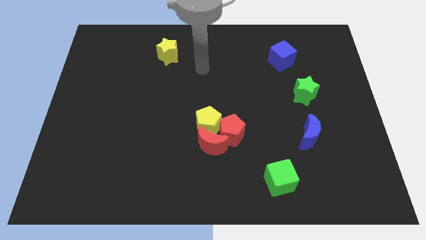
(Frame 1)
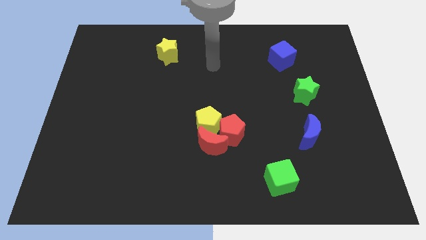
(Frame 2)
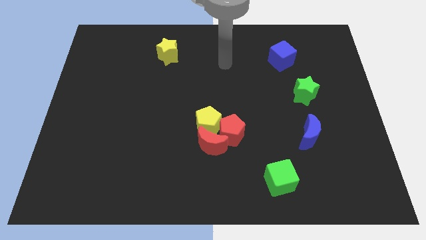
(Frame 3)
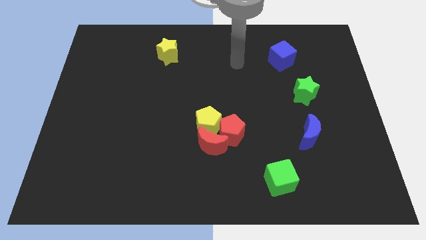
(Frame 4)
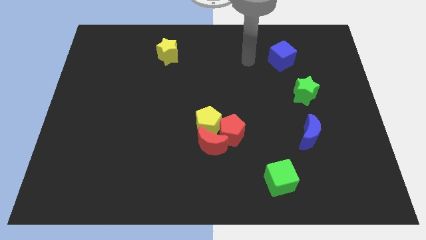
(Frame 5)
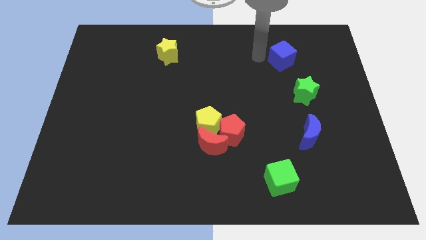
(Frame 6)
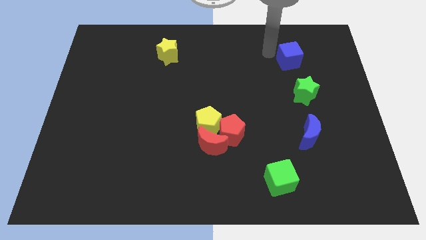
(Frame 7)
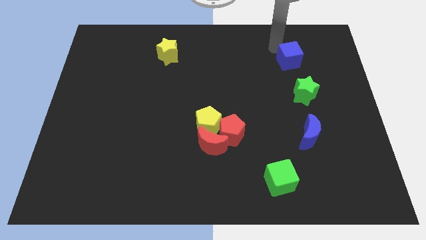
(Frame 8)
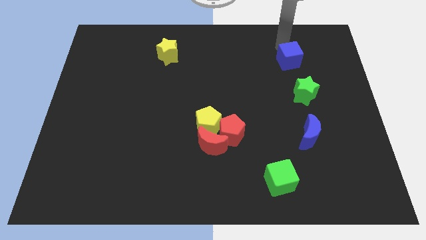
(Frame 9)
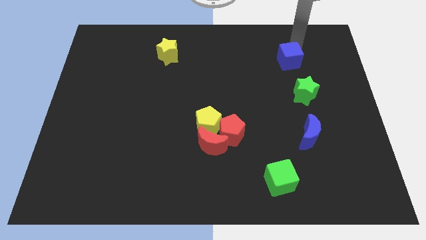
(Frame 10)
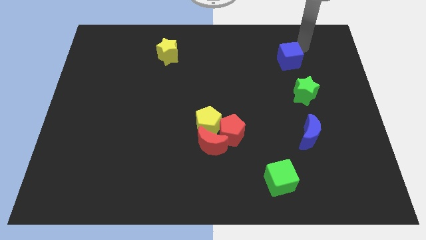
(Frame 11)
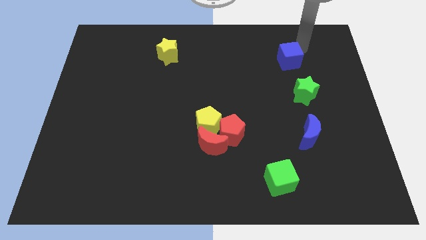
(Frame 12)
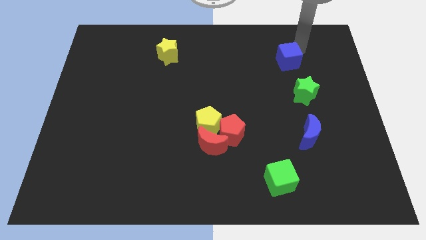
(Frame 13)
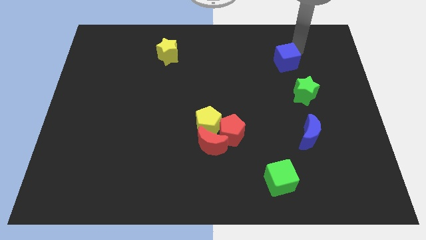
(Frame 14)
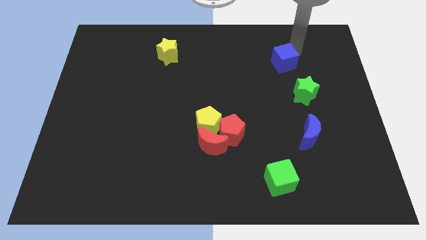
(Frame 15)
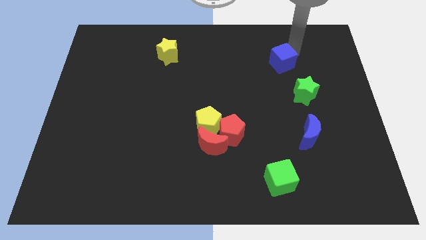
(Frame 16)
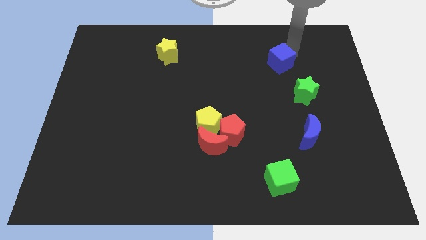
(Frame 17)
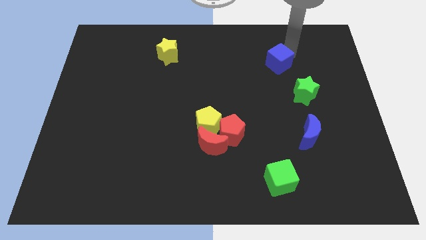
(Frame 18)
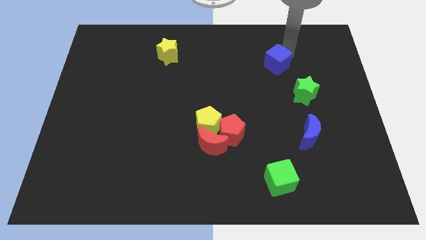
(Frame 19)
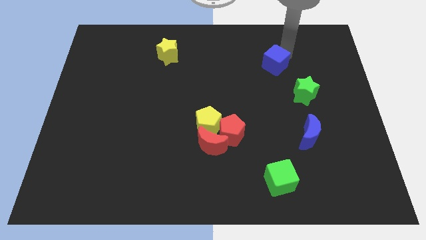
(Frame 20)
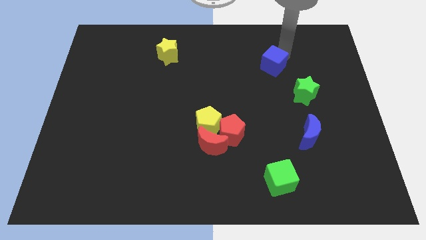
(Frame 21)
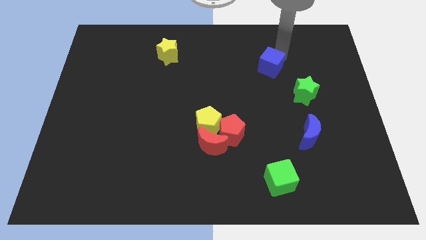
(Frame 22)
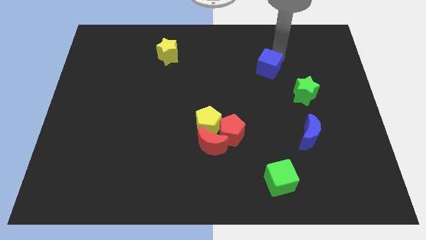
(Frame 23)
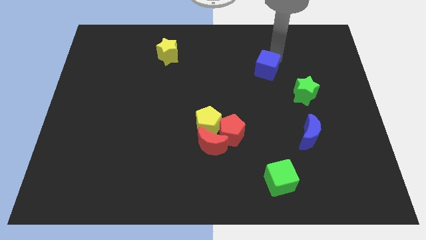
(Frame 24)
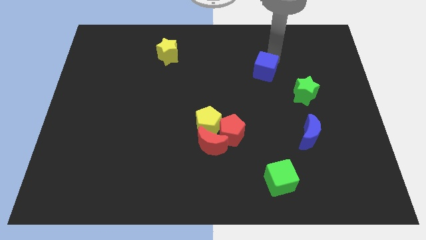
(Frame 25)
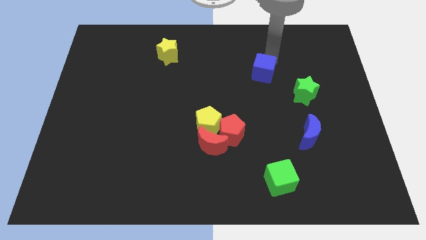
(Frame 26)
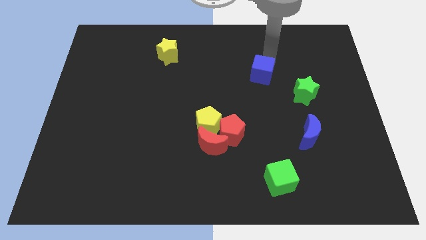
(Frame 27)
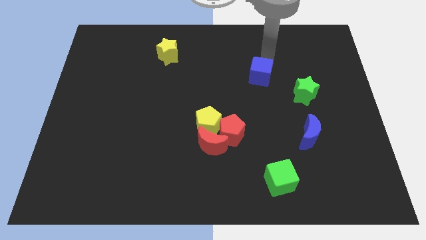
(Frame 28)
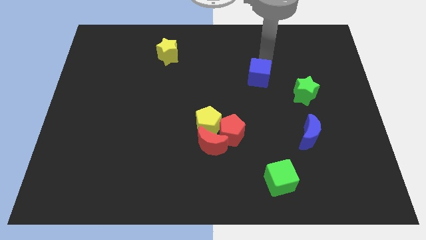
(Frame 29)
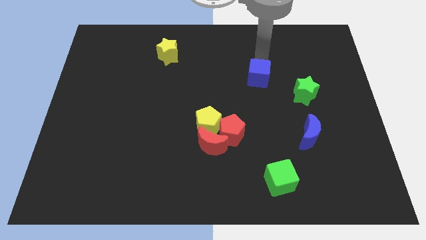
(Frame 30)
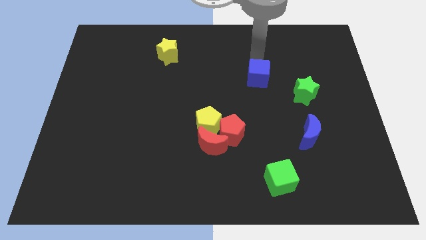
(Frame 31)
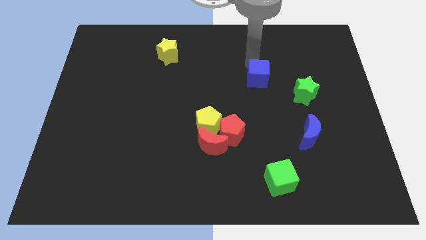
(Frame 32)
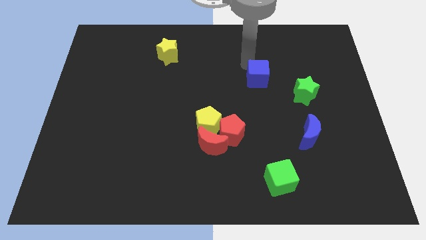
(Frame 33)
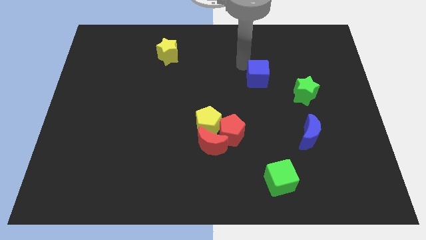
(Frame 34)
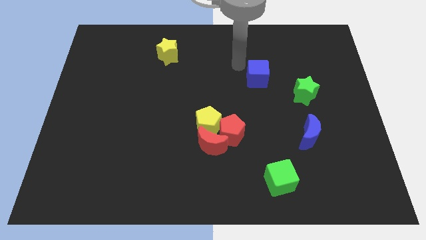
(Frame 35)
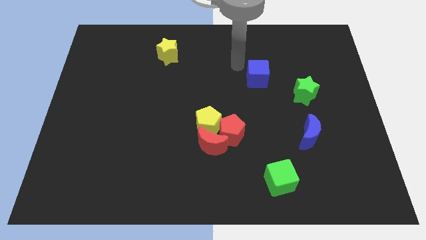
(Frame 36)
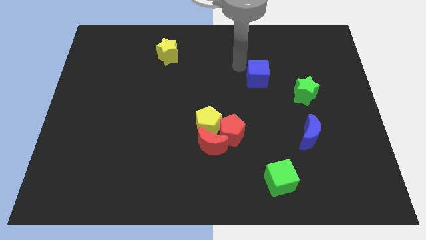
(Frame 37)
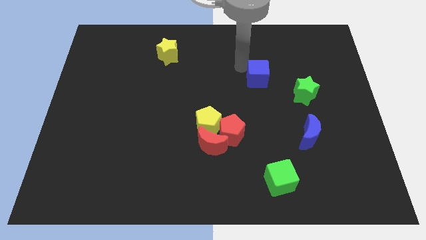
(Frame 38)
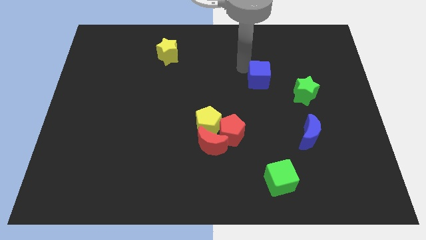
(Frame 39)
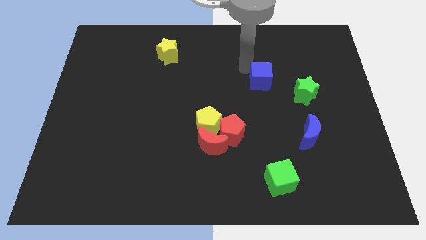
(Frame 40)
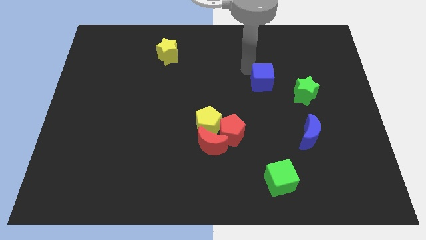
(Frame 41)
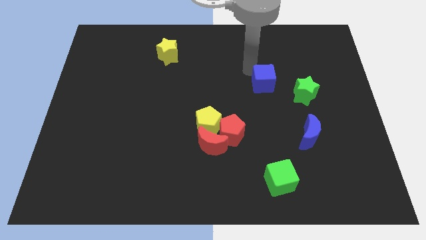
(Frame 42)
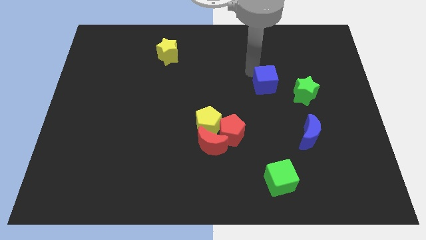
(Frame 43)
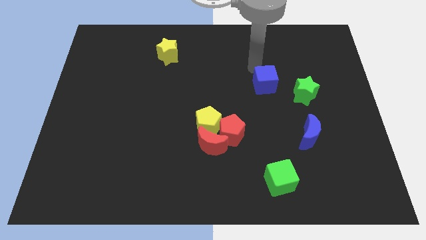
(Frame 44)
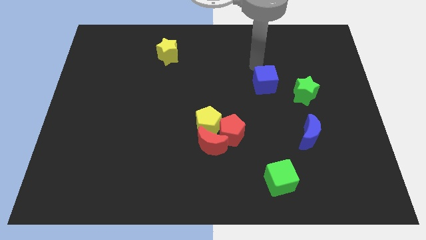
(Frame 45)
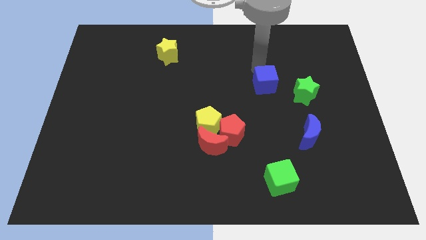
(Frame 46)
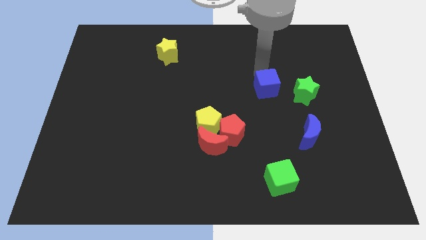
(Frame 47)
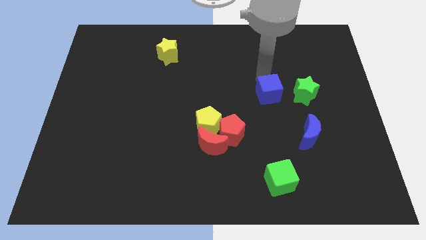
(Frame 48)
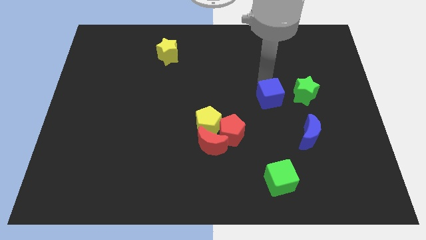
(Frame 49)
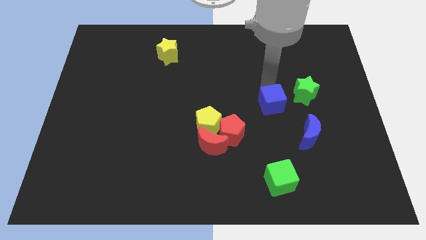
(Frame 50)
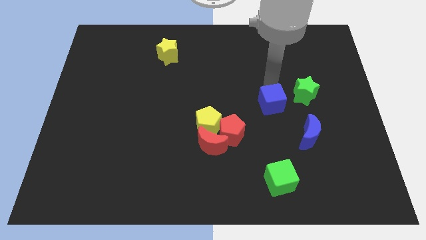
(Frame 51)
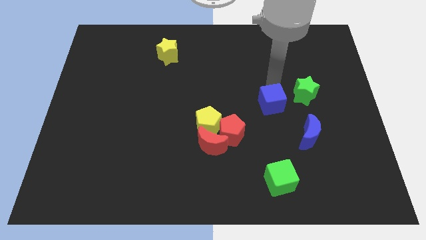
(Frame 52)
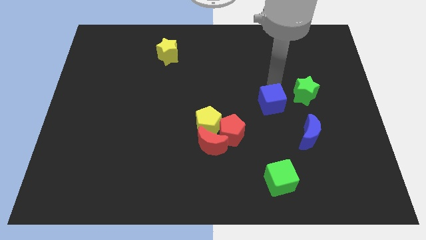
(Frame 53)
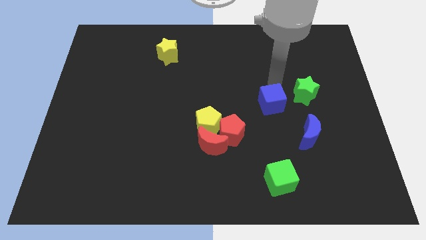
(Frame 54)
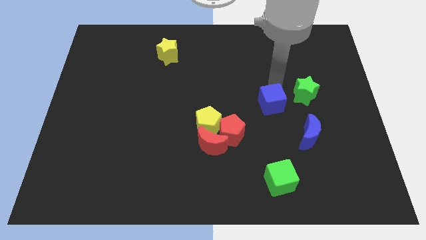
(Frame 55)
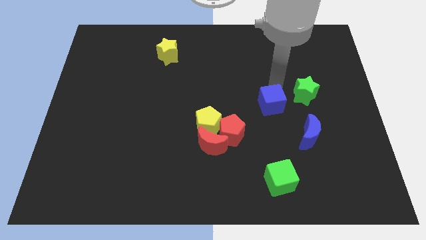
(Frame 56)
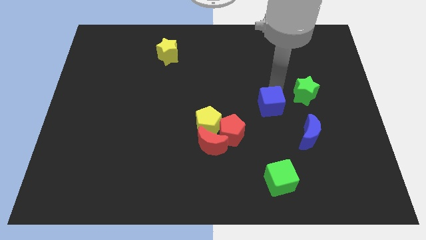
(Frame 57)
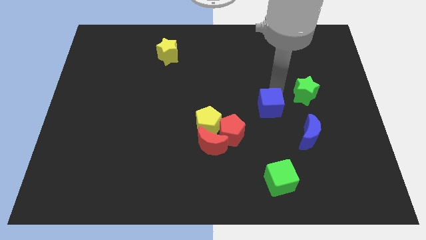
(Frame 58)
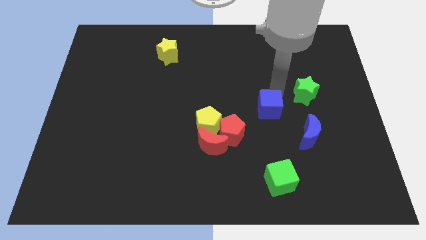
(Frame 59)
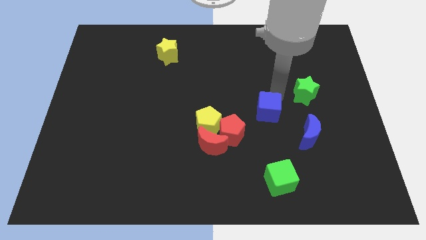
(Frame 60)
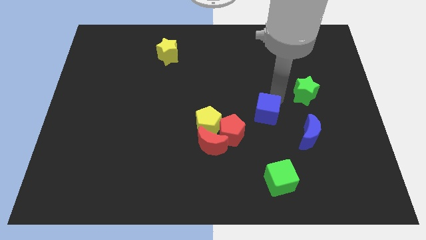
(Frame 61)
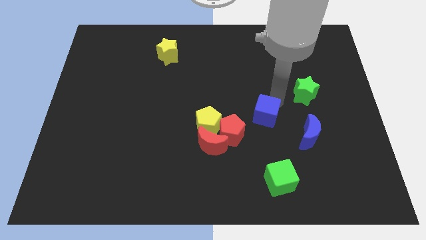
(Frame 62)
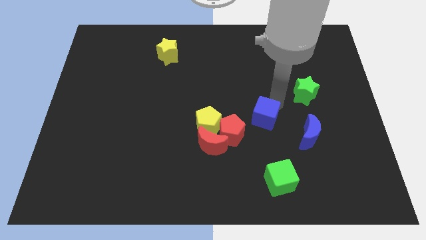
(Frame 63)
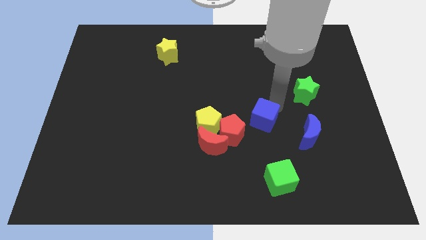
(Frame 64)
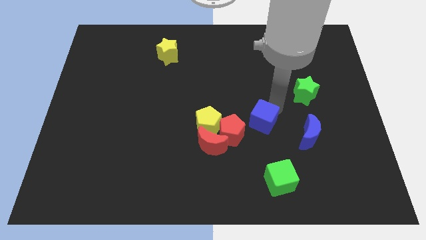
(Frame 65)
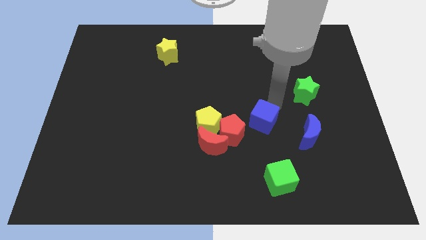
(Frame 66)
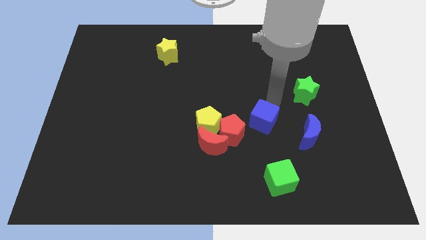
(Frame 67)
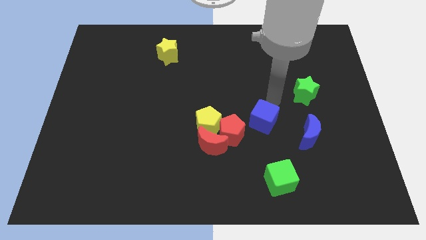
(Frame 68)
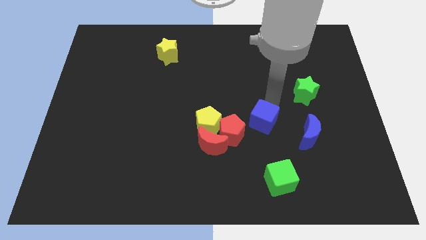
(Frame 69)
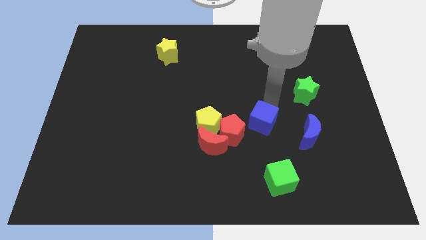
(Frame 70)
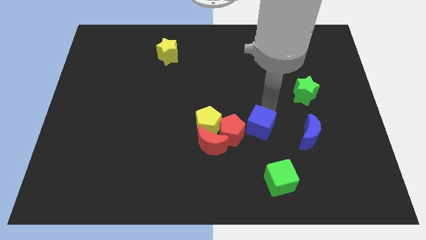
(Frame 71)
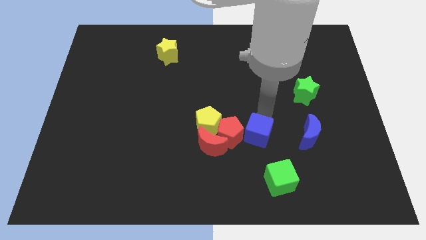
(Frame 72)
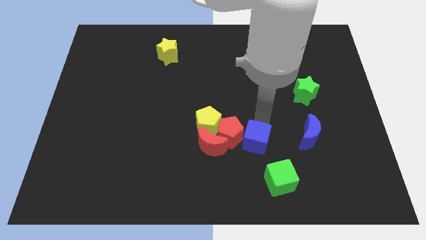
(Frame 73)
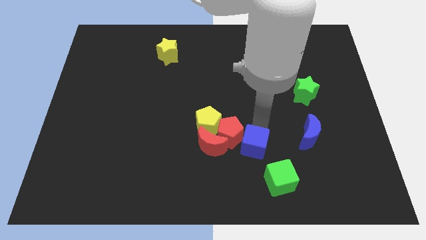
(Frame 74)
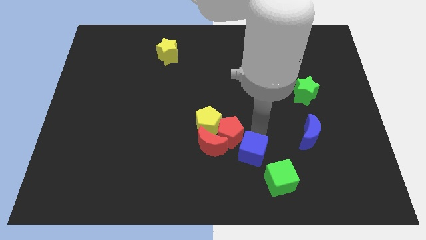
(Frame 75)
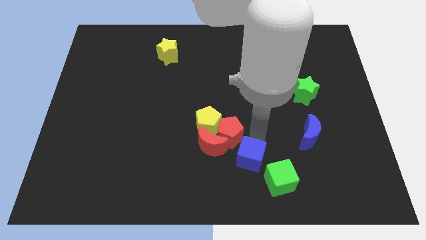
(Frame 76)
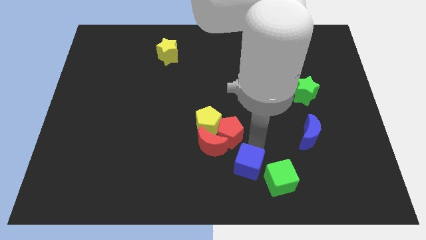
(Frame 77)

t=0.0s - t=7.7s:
slide the blue cube to the bottom side
